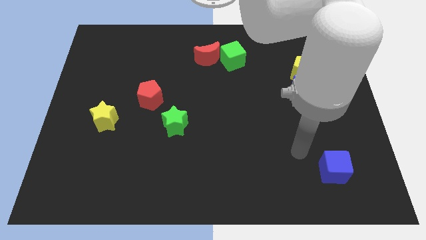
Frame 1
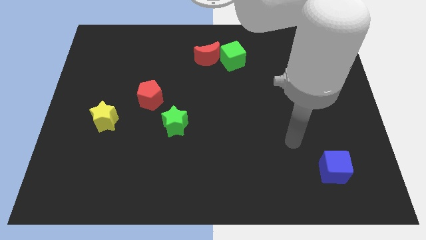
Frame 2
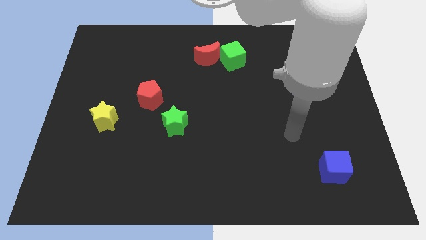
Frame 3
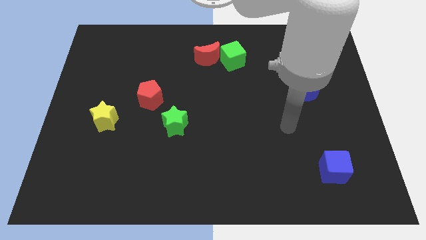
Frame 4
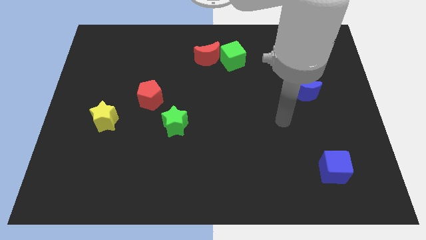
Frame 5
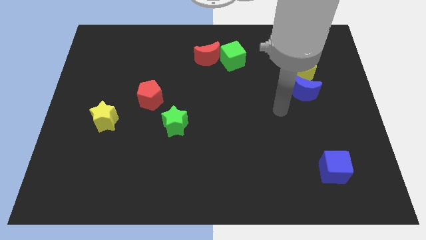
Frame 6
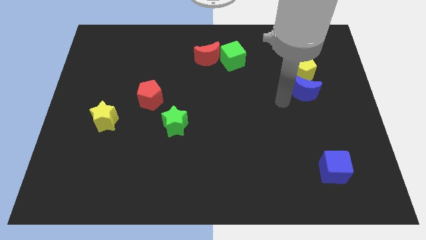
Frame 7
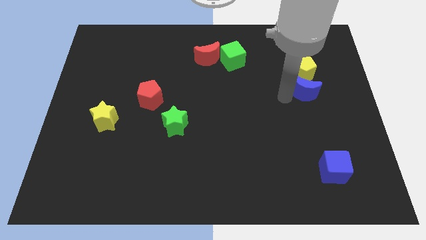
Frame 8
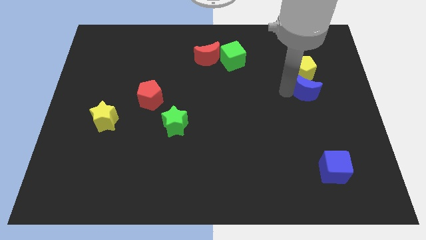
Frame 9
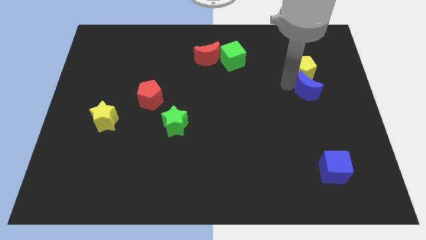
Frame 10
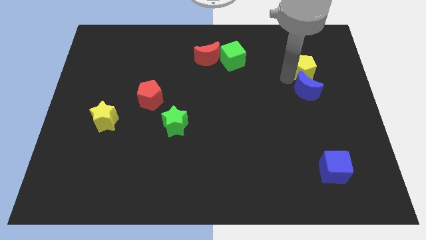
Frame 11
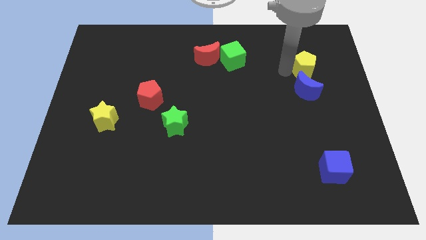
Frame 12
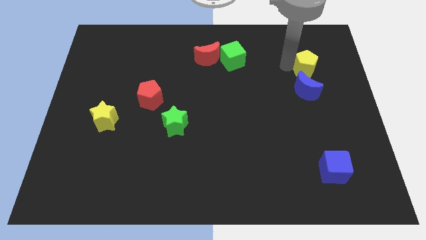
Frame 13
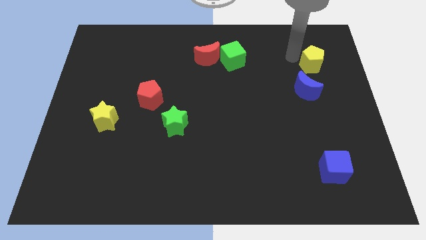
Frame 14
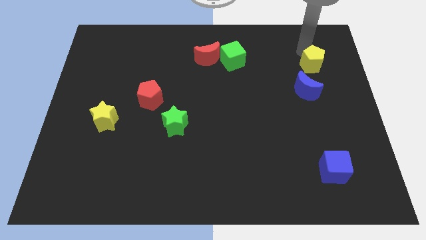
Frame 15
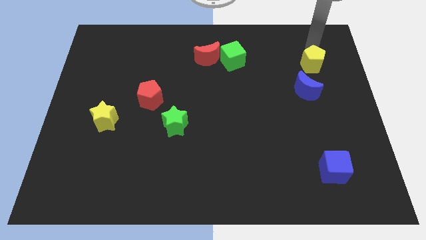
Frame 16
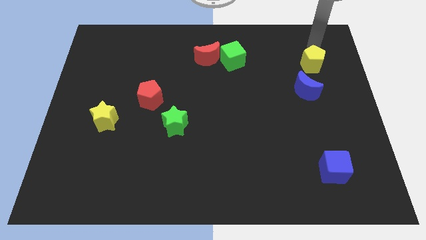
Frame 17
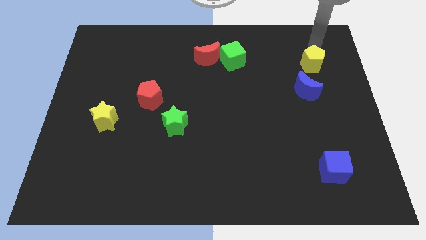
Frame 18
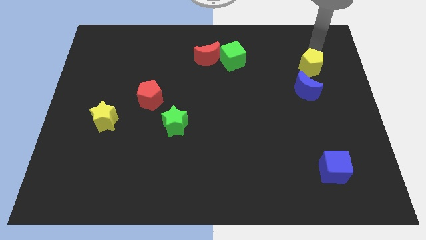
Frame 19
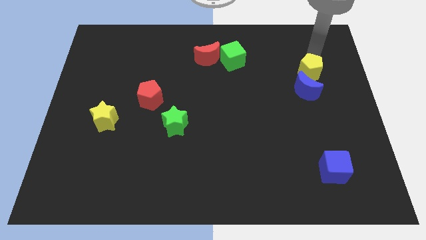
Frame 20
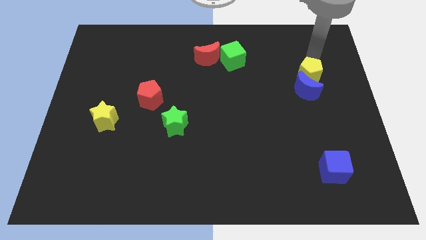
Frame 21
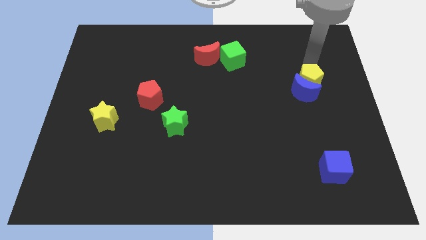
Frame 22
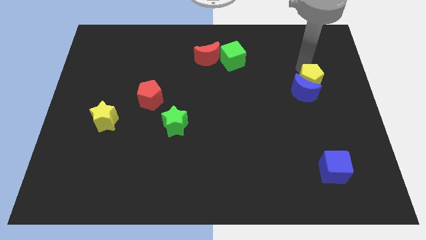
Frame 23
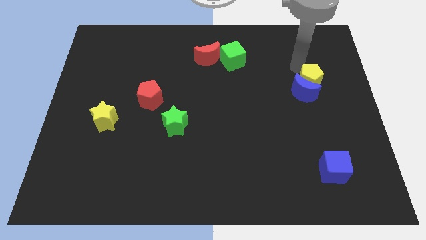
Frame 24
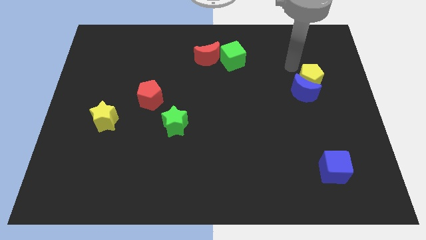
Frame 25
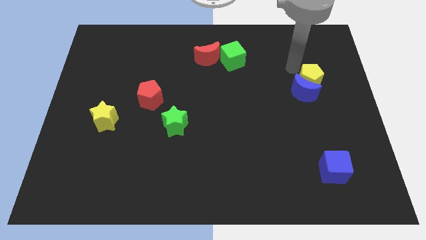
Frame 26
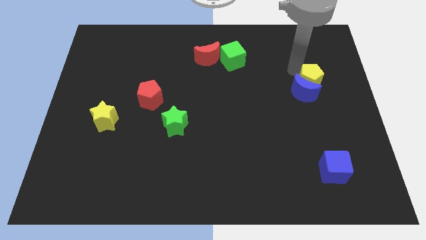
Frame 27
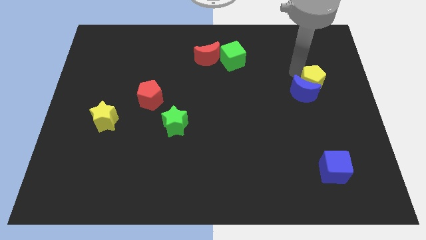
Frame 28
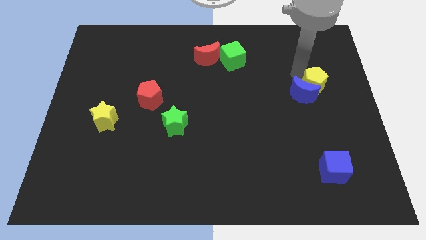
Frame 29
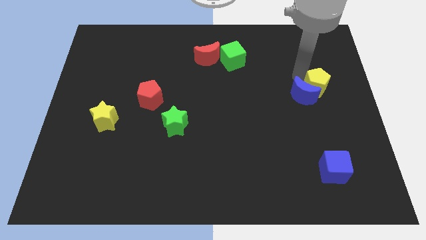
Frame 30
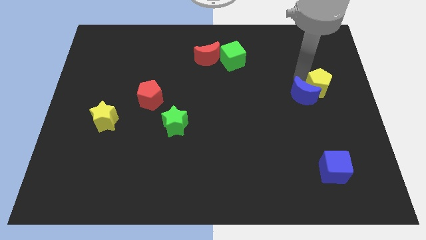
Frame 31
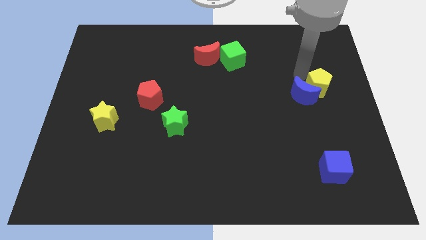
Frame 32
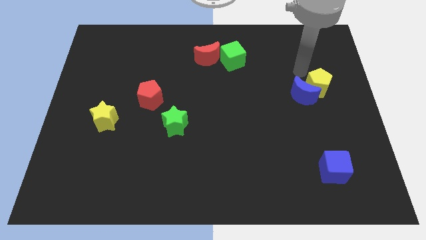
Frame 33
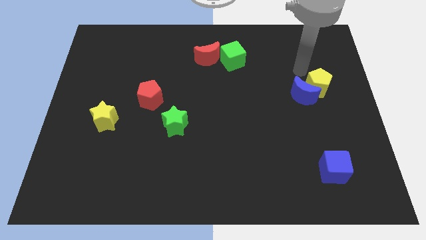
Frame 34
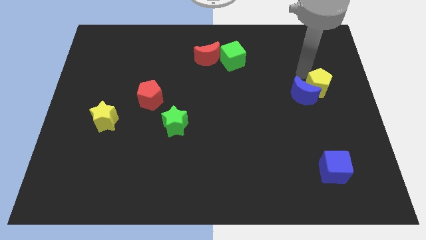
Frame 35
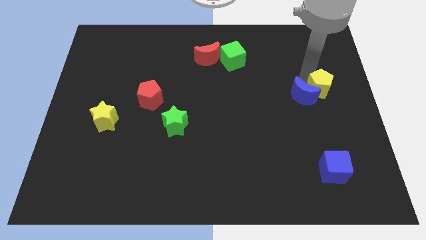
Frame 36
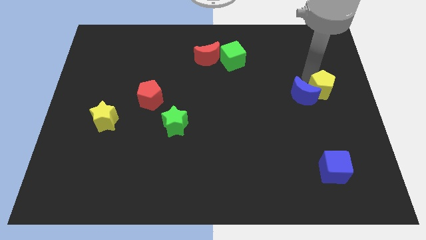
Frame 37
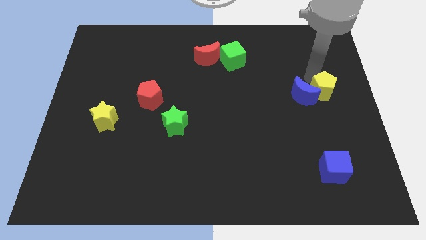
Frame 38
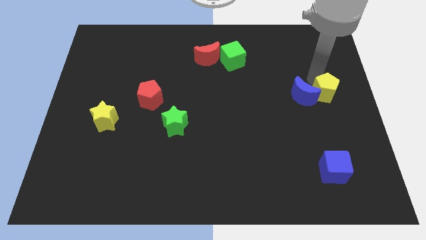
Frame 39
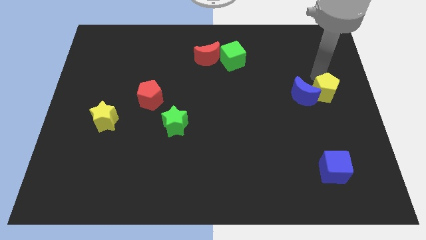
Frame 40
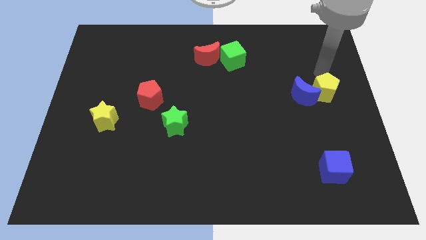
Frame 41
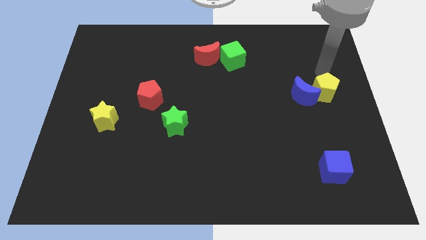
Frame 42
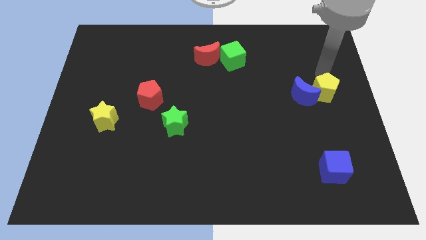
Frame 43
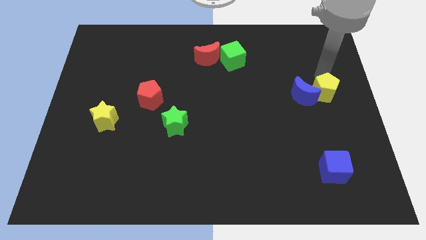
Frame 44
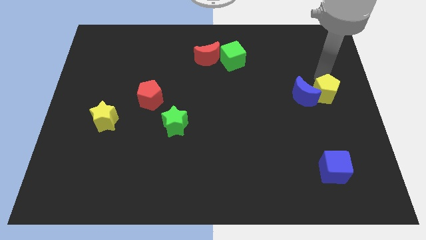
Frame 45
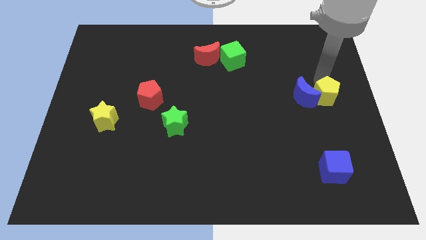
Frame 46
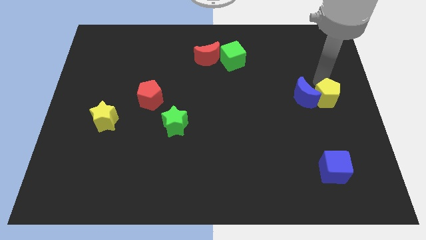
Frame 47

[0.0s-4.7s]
slide the yellow pentagon a little downwards

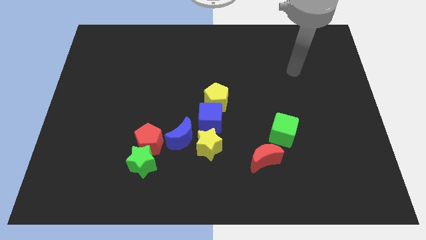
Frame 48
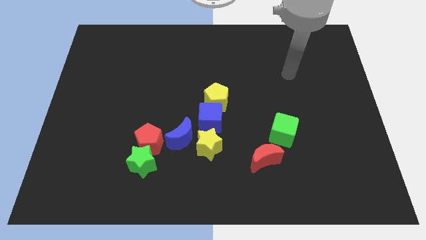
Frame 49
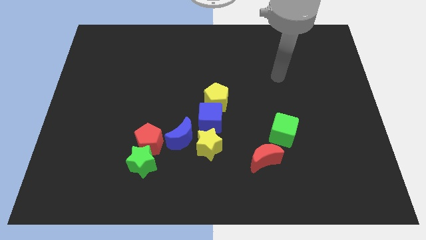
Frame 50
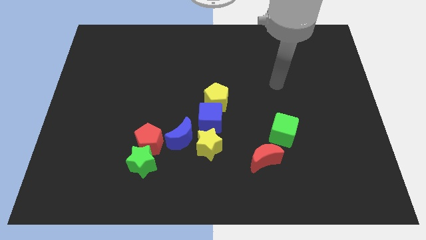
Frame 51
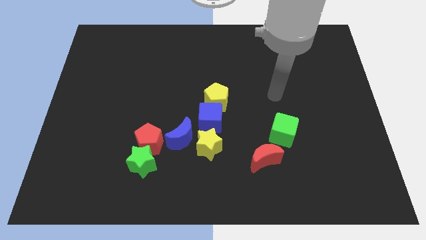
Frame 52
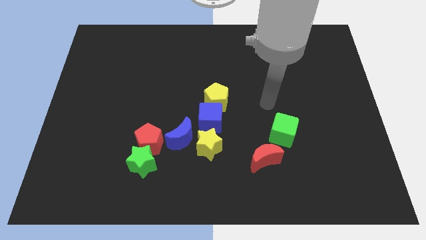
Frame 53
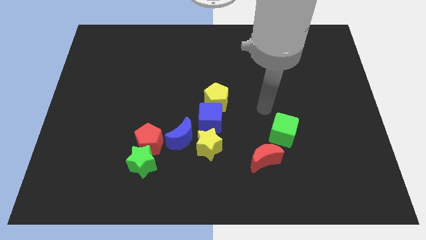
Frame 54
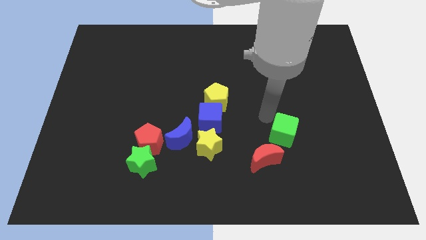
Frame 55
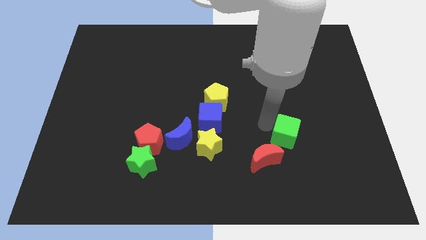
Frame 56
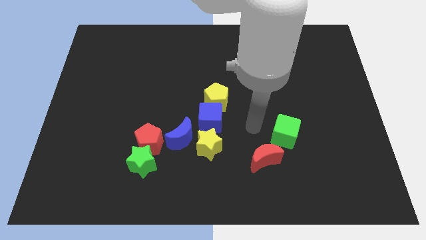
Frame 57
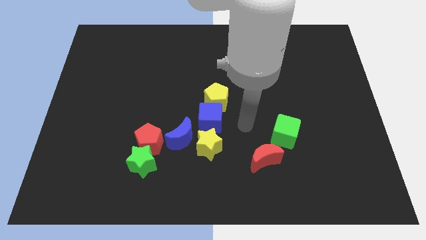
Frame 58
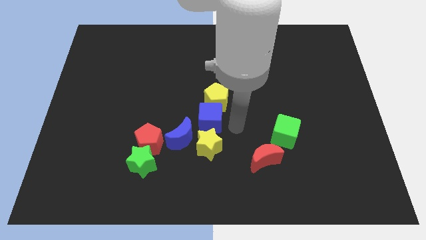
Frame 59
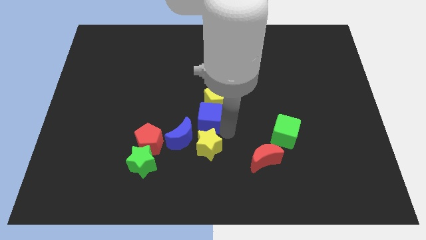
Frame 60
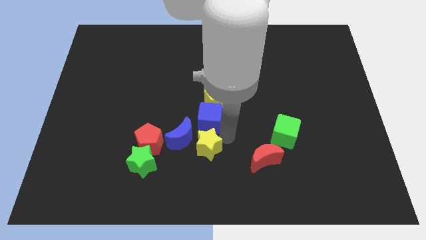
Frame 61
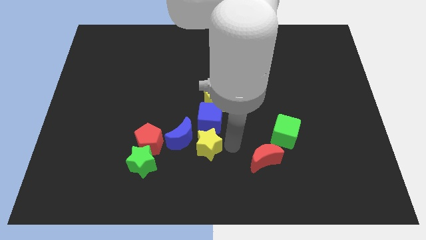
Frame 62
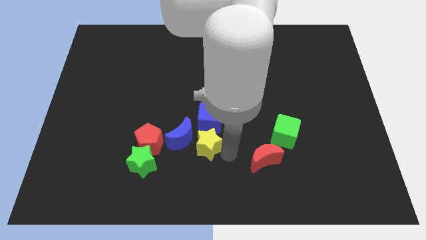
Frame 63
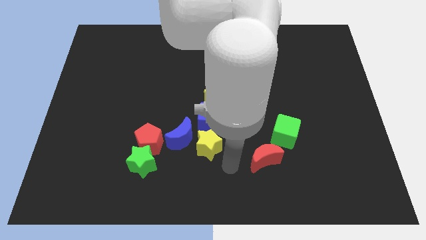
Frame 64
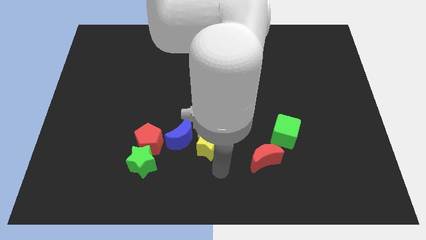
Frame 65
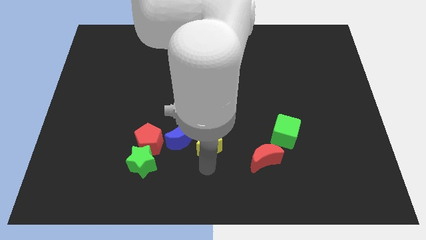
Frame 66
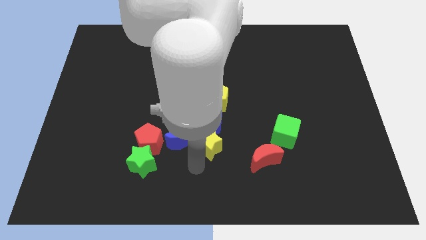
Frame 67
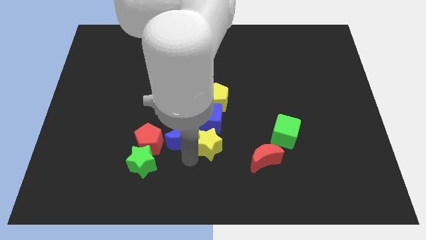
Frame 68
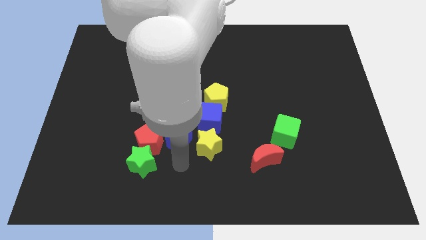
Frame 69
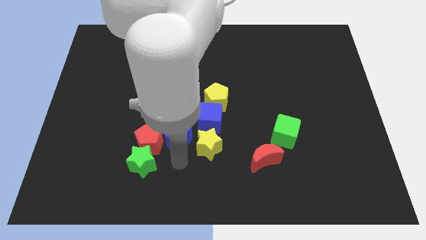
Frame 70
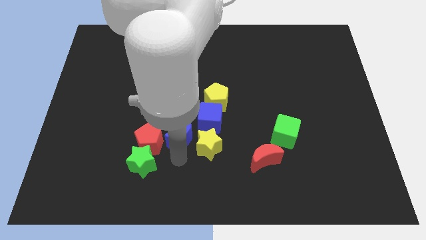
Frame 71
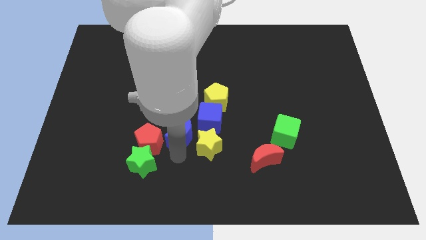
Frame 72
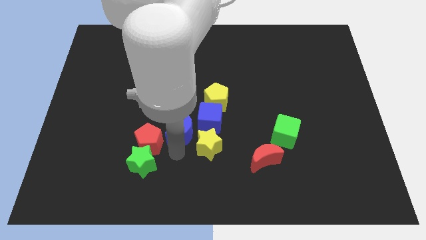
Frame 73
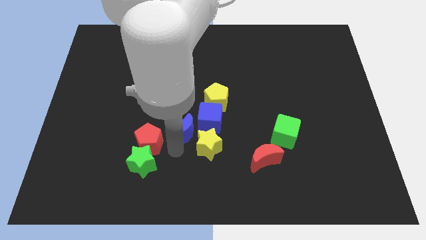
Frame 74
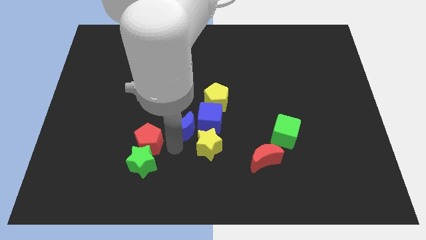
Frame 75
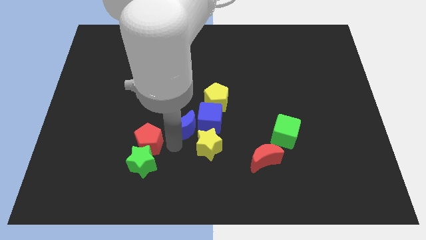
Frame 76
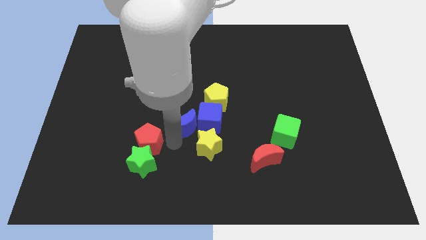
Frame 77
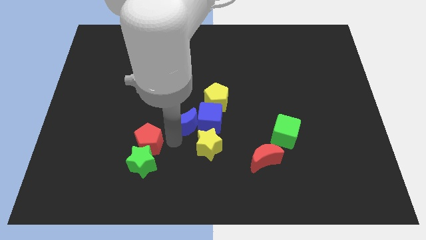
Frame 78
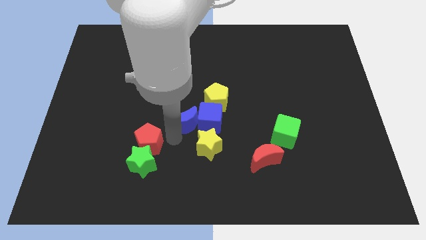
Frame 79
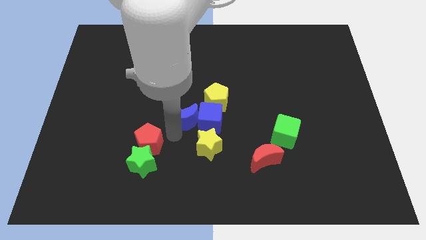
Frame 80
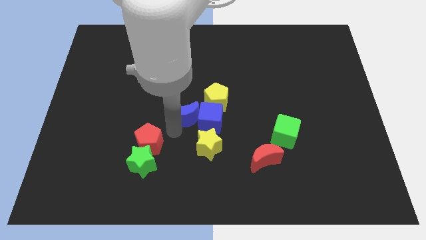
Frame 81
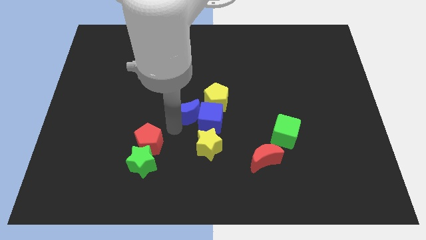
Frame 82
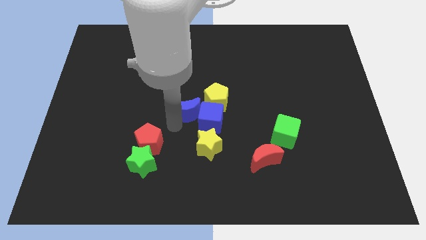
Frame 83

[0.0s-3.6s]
move the blue moon up a little
